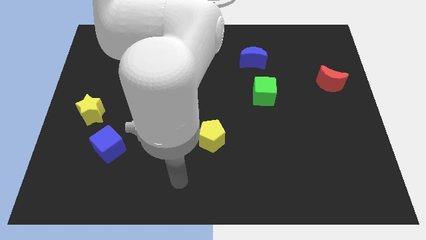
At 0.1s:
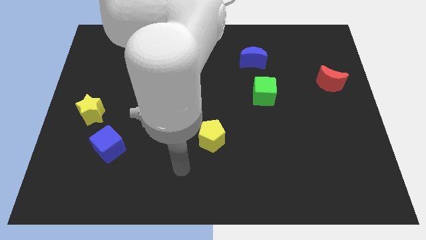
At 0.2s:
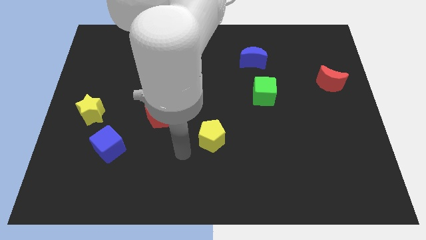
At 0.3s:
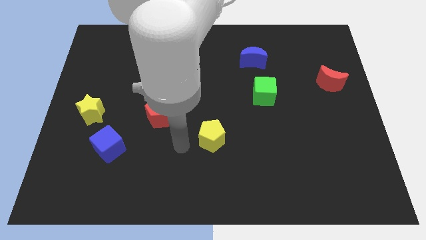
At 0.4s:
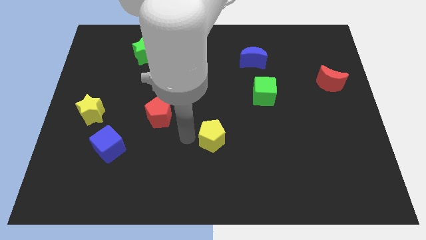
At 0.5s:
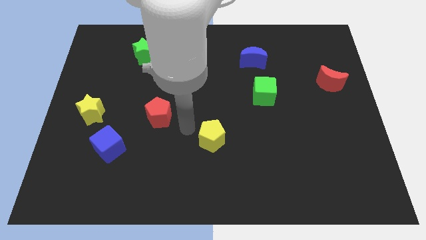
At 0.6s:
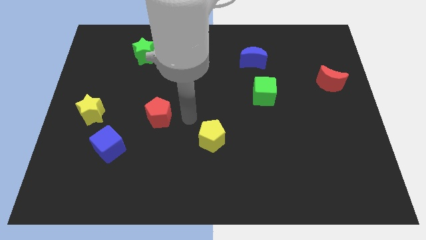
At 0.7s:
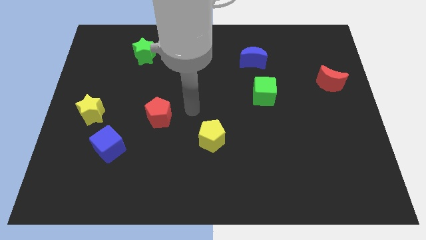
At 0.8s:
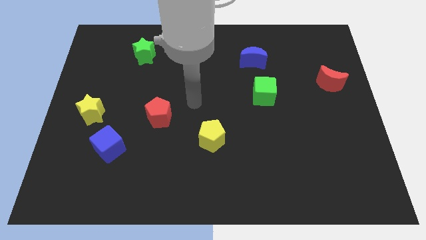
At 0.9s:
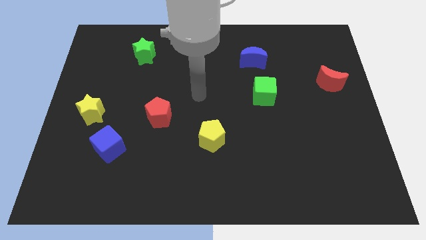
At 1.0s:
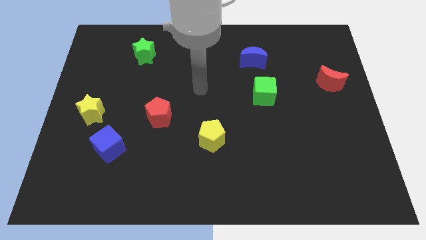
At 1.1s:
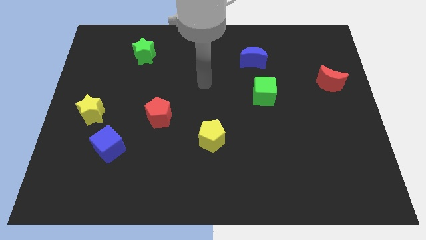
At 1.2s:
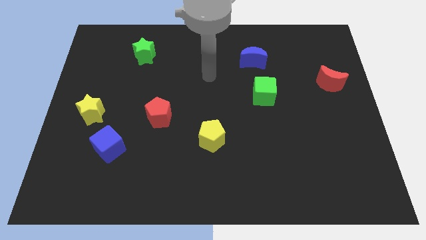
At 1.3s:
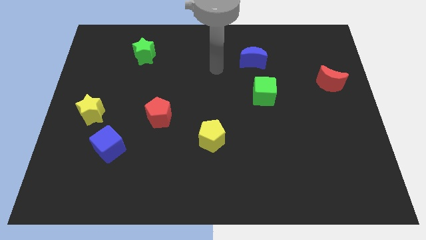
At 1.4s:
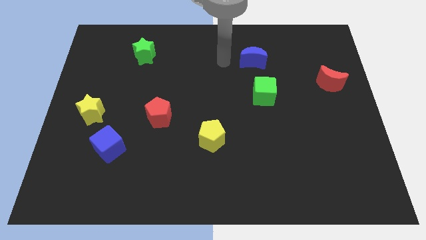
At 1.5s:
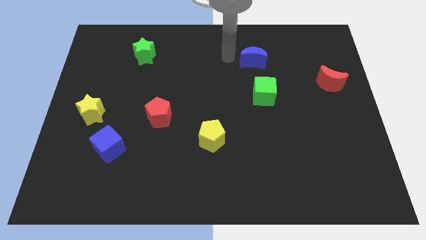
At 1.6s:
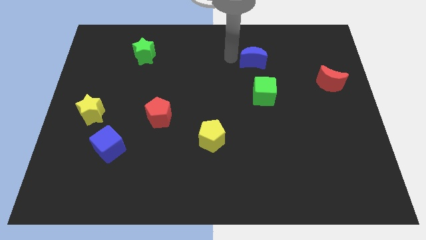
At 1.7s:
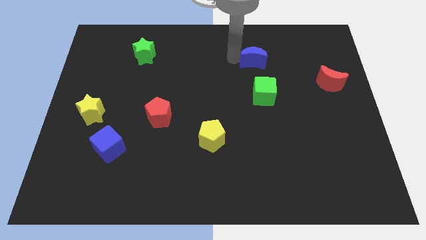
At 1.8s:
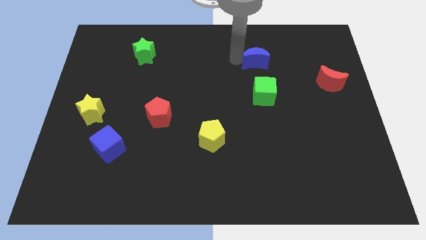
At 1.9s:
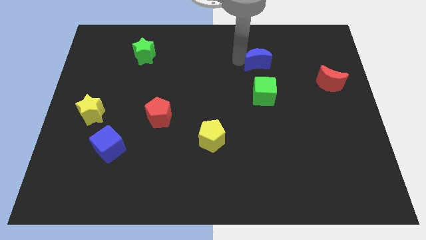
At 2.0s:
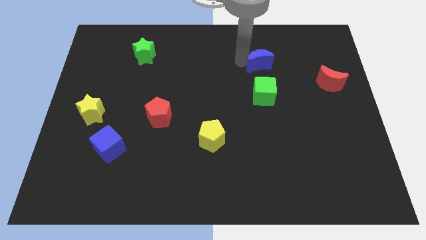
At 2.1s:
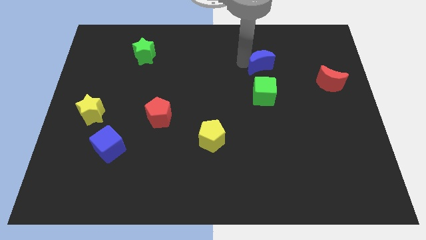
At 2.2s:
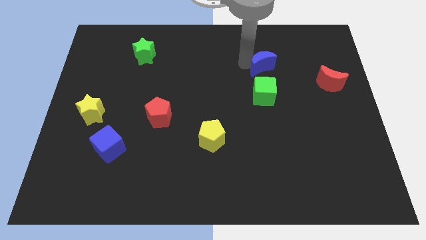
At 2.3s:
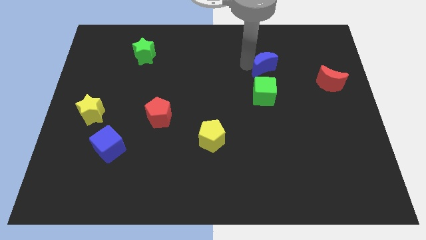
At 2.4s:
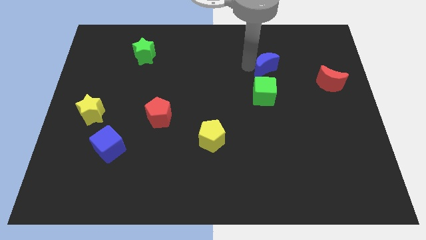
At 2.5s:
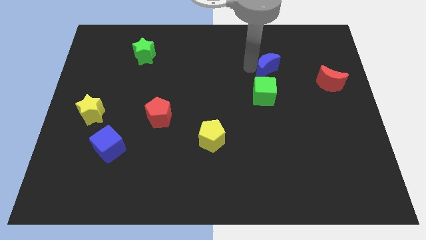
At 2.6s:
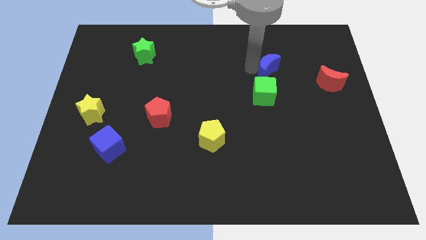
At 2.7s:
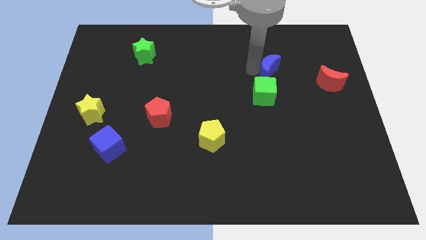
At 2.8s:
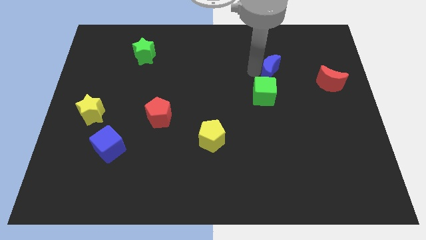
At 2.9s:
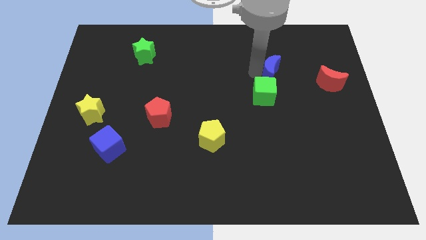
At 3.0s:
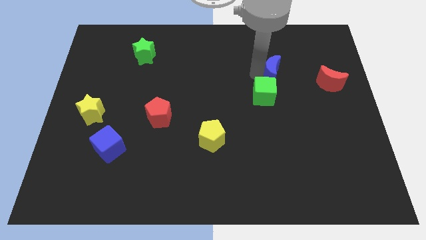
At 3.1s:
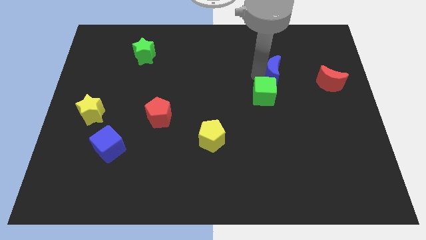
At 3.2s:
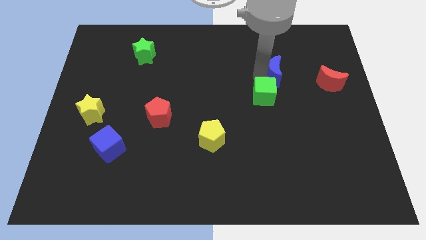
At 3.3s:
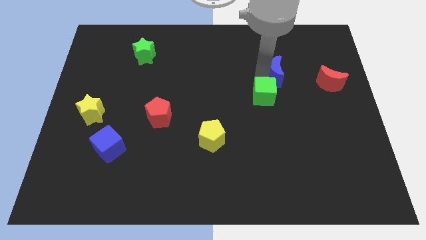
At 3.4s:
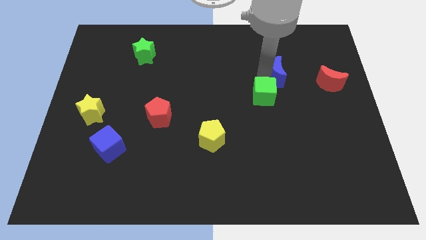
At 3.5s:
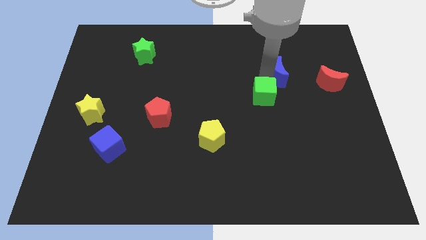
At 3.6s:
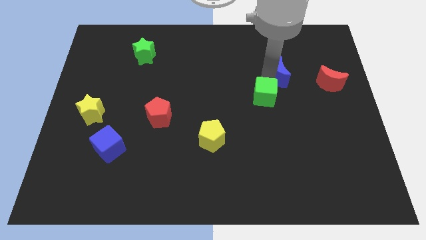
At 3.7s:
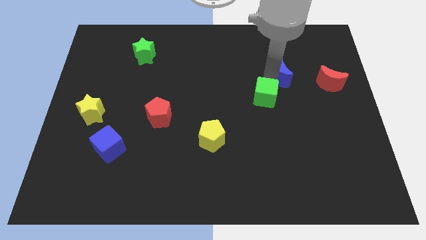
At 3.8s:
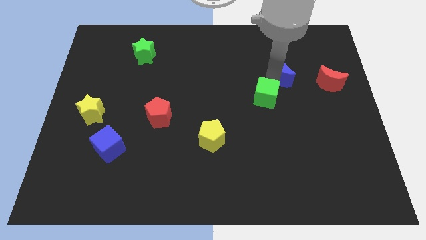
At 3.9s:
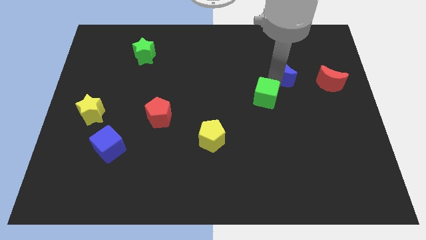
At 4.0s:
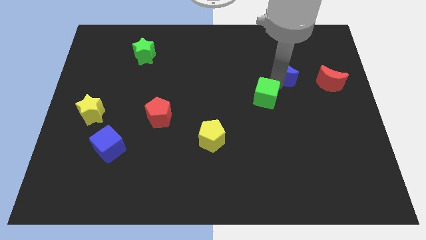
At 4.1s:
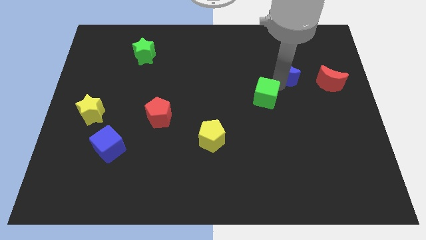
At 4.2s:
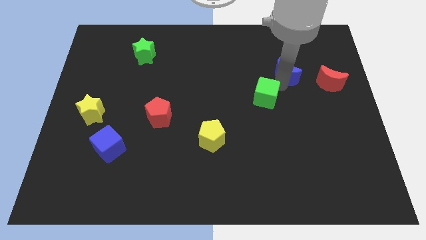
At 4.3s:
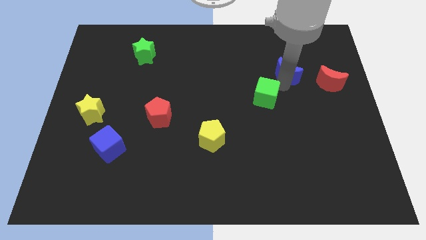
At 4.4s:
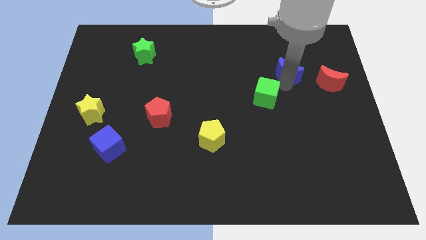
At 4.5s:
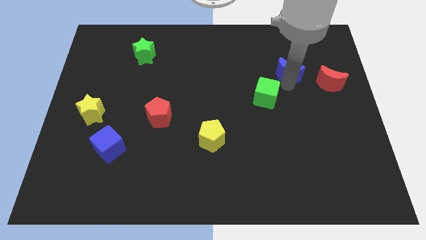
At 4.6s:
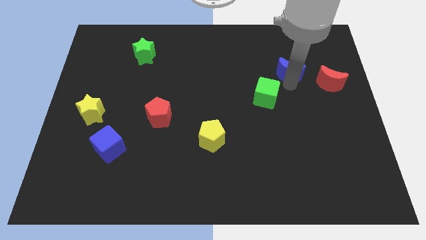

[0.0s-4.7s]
slide the blue moon to the top left side of the red moon

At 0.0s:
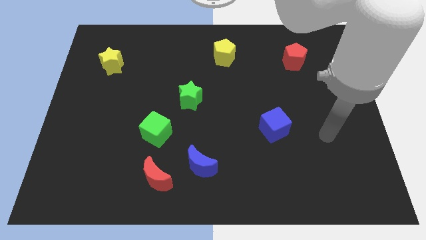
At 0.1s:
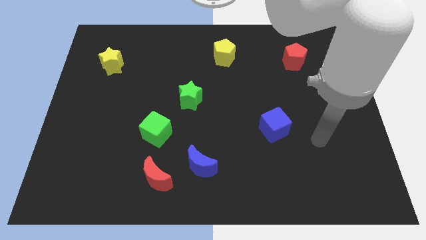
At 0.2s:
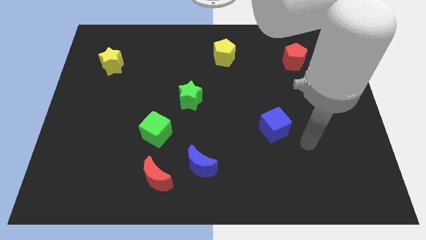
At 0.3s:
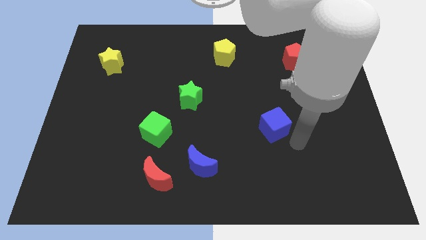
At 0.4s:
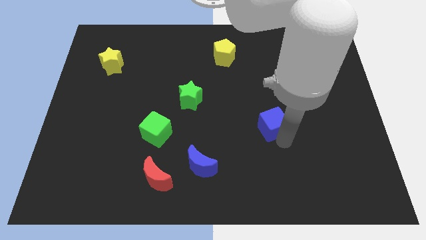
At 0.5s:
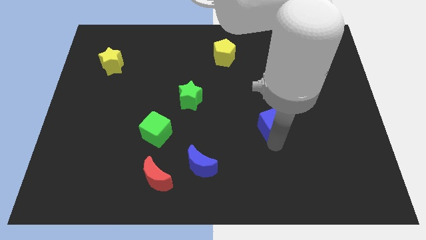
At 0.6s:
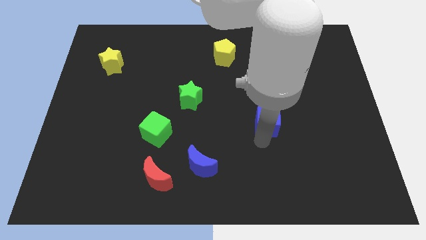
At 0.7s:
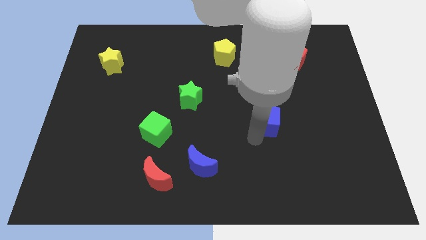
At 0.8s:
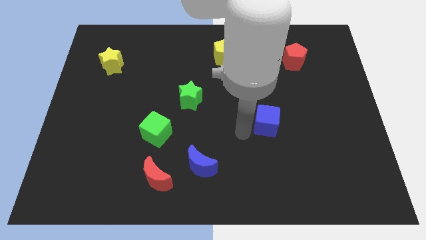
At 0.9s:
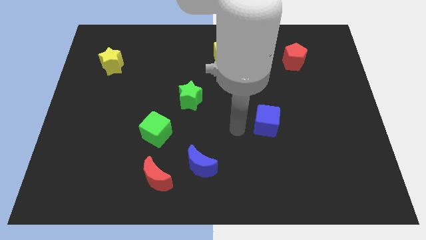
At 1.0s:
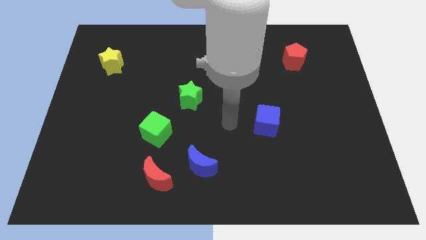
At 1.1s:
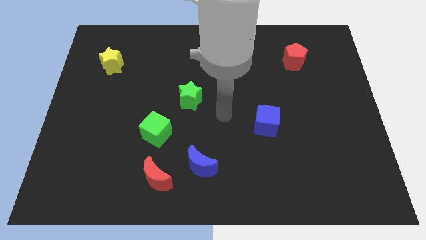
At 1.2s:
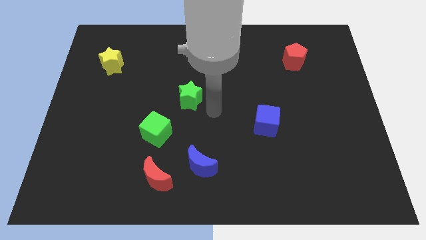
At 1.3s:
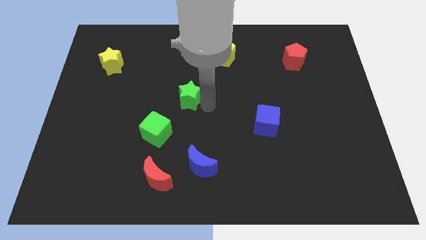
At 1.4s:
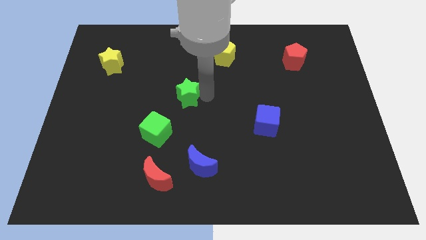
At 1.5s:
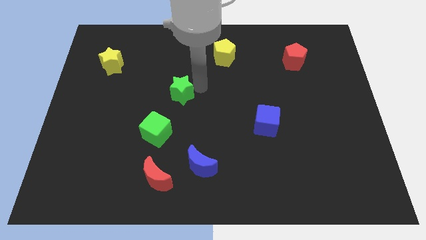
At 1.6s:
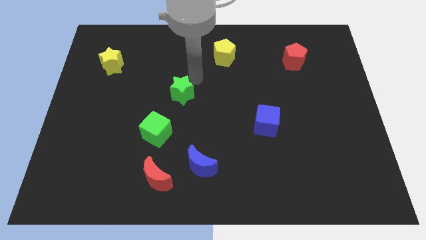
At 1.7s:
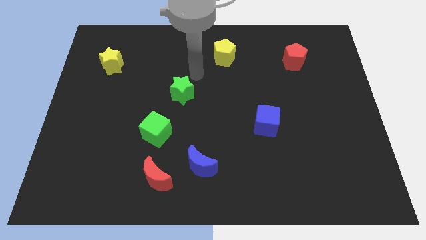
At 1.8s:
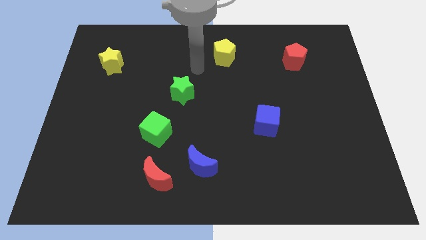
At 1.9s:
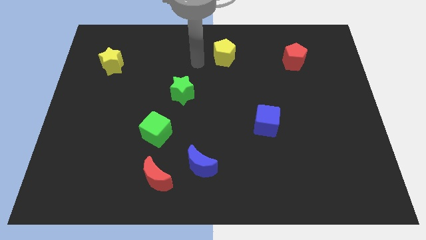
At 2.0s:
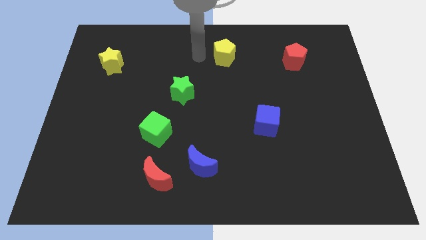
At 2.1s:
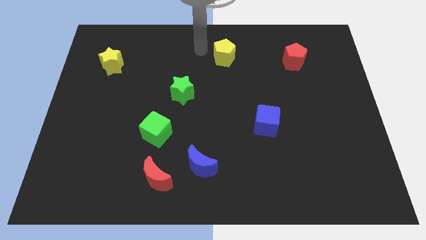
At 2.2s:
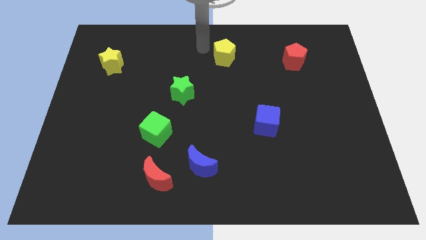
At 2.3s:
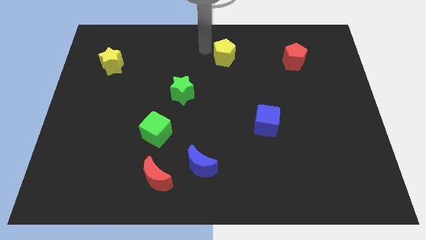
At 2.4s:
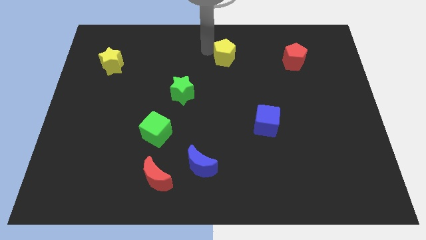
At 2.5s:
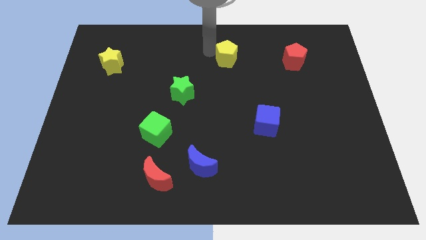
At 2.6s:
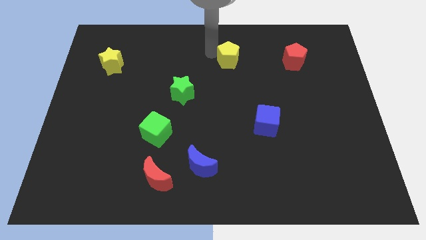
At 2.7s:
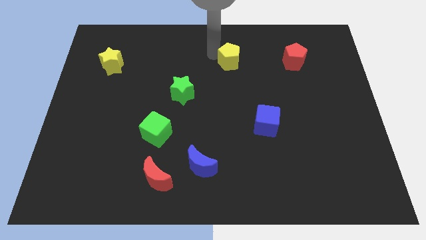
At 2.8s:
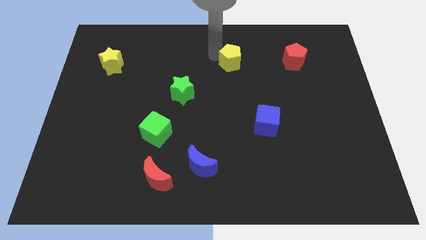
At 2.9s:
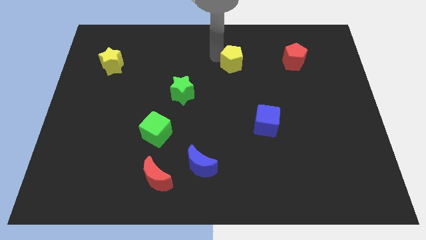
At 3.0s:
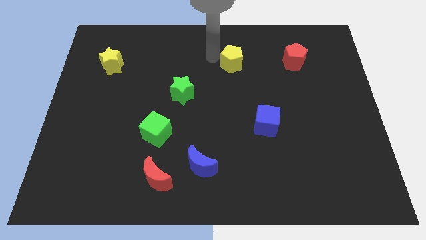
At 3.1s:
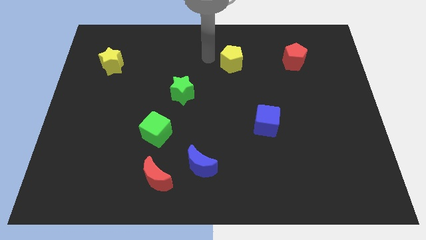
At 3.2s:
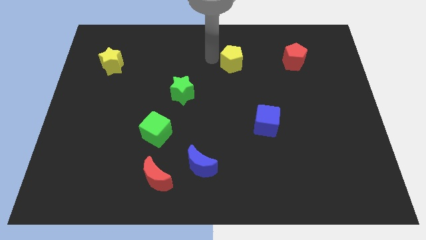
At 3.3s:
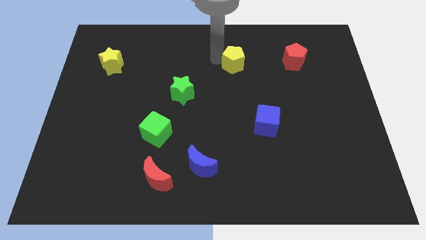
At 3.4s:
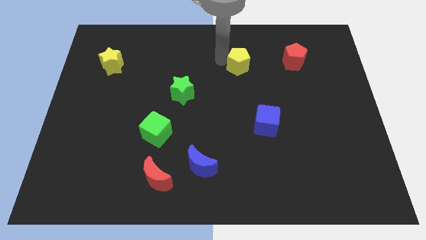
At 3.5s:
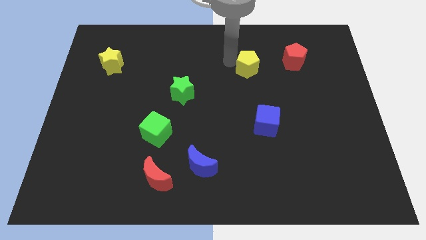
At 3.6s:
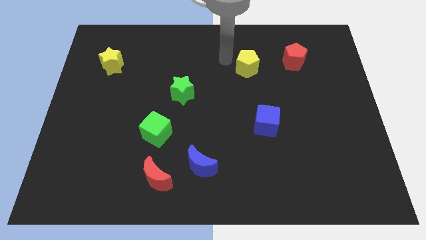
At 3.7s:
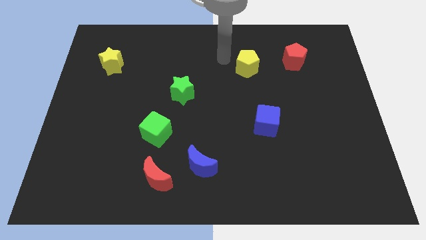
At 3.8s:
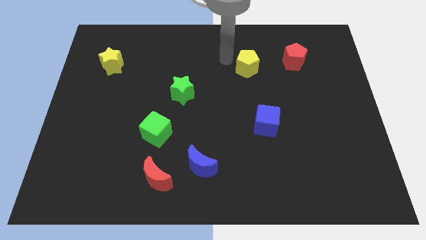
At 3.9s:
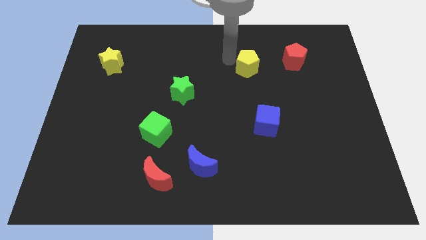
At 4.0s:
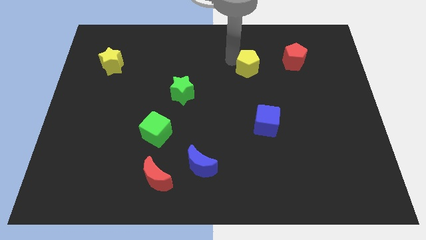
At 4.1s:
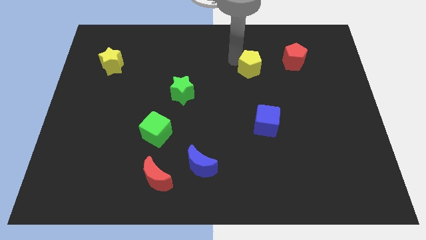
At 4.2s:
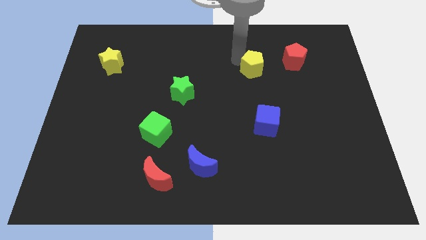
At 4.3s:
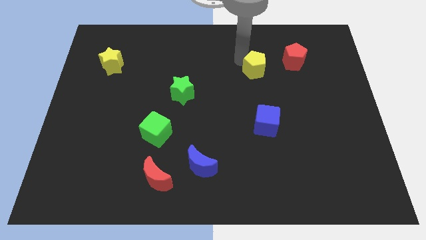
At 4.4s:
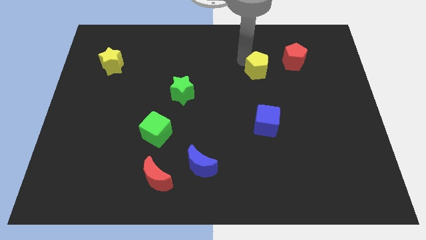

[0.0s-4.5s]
move the yellow pentagon to the bottom left of the red pentagon
